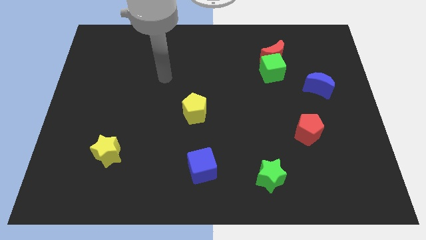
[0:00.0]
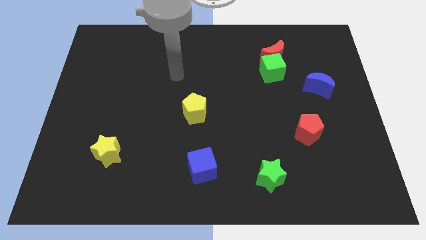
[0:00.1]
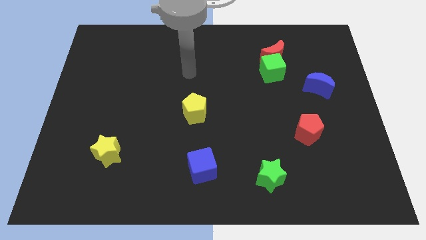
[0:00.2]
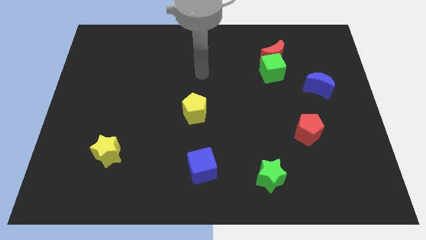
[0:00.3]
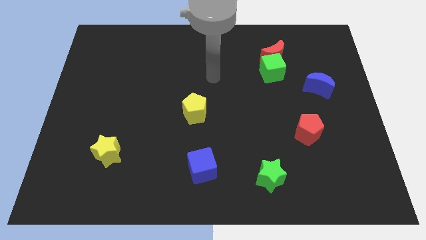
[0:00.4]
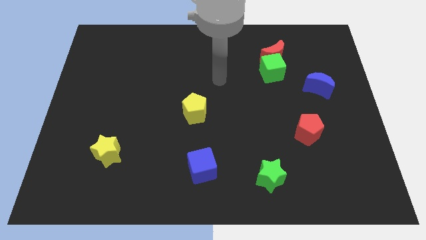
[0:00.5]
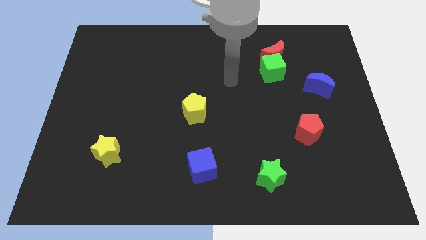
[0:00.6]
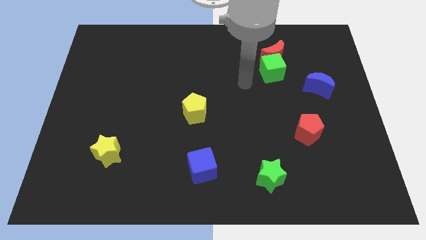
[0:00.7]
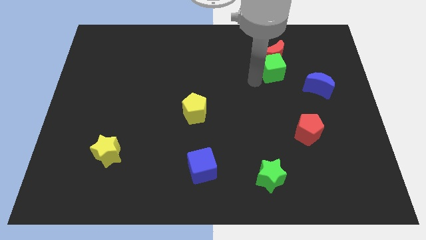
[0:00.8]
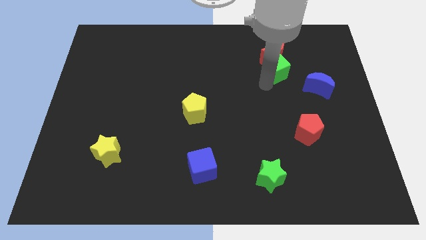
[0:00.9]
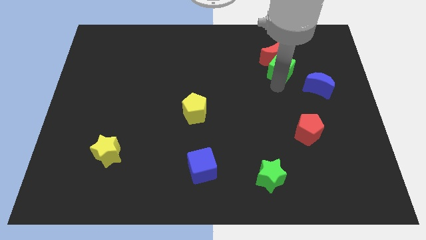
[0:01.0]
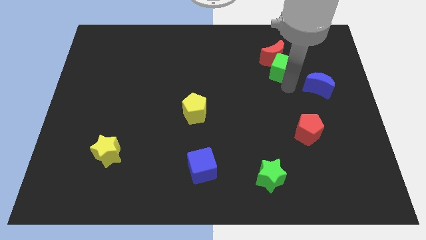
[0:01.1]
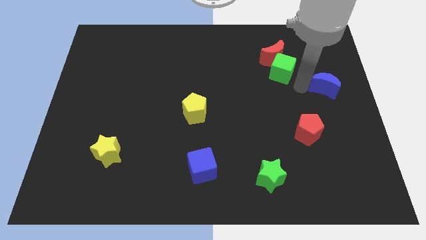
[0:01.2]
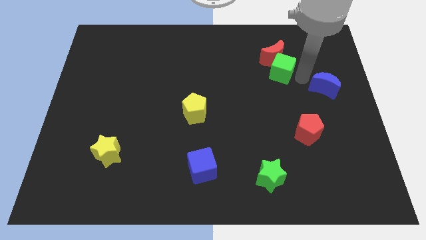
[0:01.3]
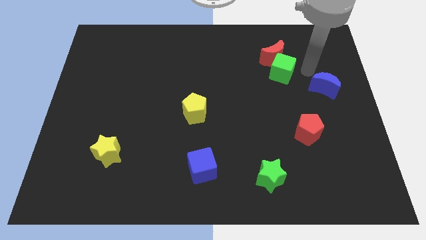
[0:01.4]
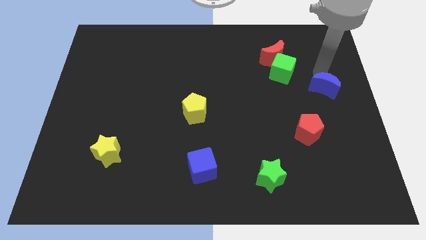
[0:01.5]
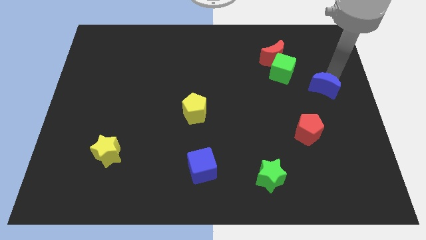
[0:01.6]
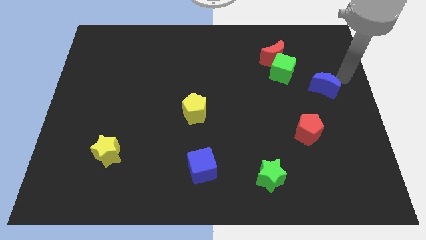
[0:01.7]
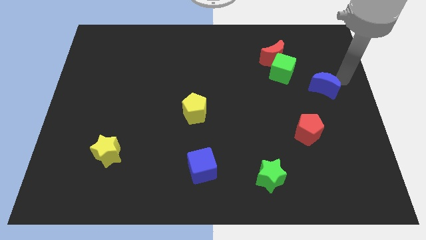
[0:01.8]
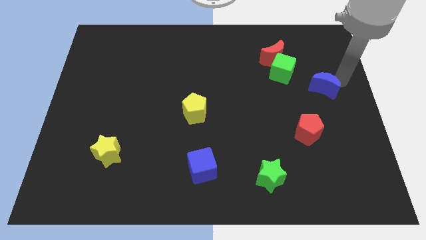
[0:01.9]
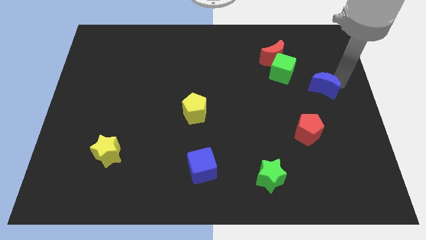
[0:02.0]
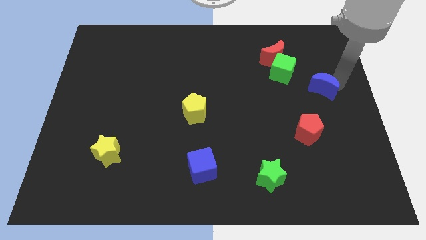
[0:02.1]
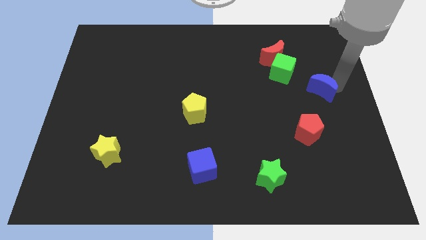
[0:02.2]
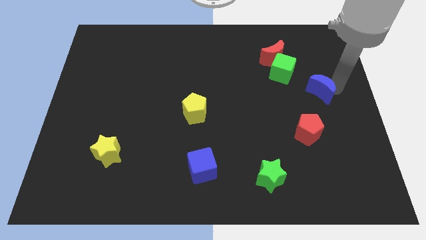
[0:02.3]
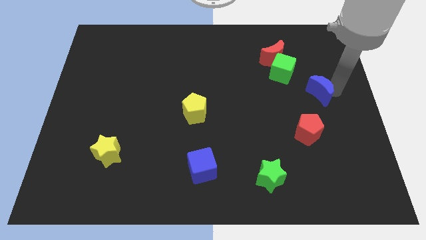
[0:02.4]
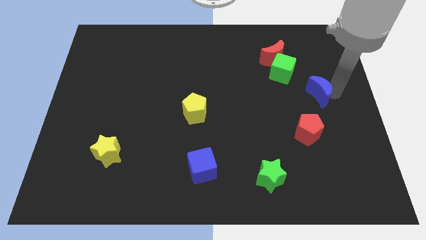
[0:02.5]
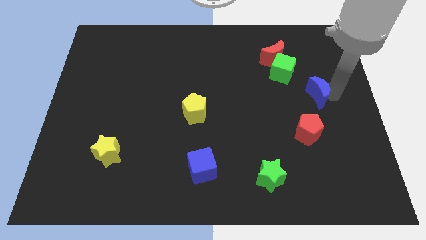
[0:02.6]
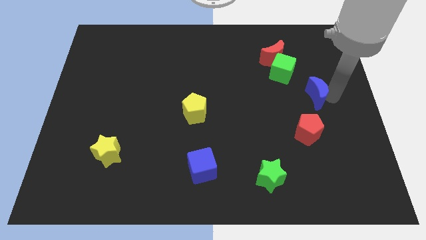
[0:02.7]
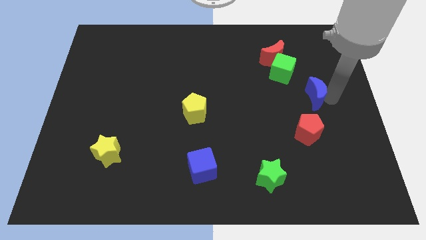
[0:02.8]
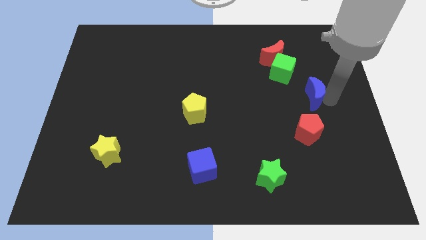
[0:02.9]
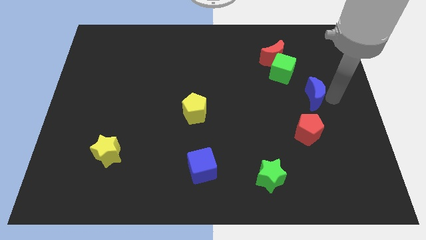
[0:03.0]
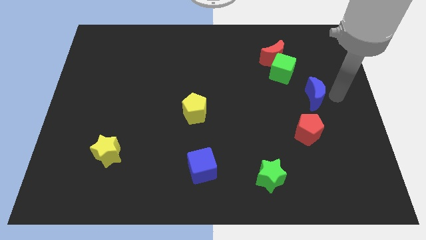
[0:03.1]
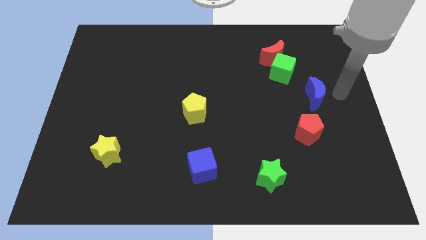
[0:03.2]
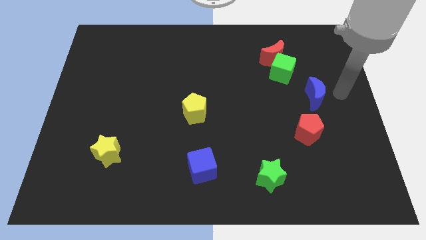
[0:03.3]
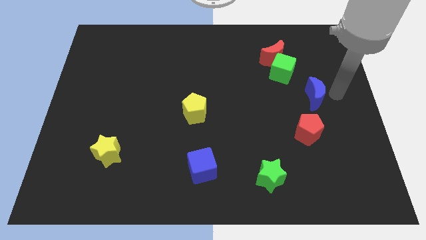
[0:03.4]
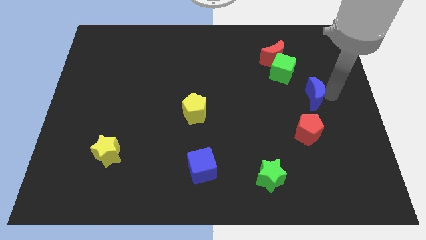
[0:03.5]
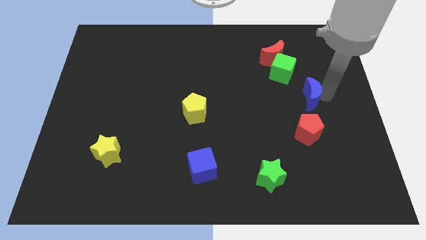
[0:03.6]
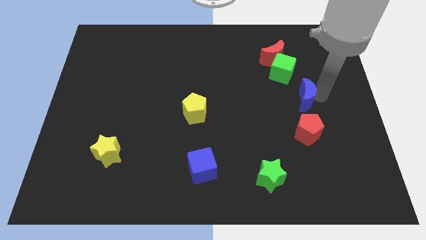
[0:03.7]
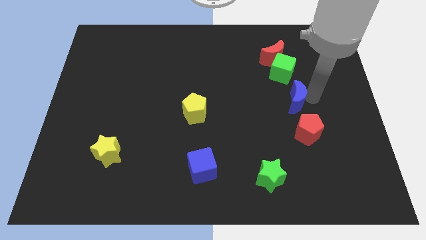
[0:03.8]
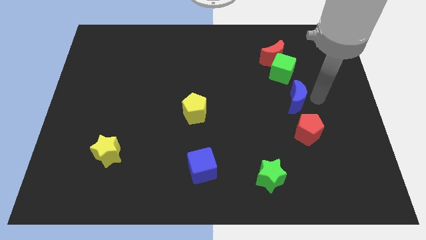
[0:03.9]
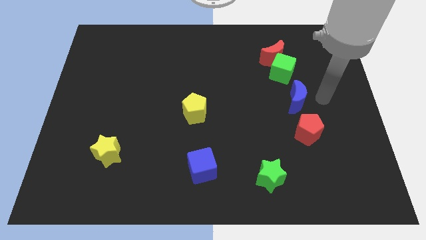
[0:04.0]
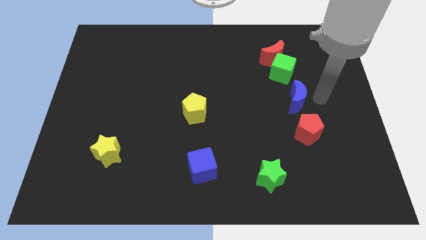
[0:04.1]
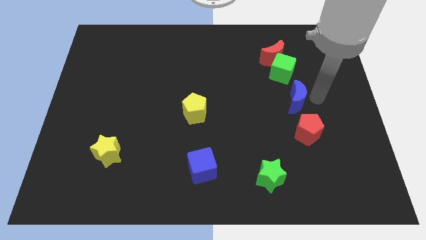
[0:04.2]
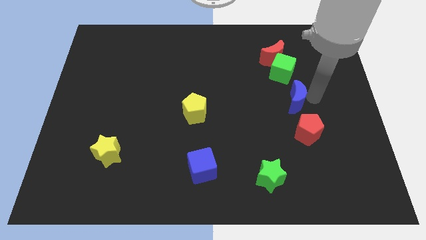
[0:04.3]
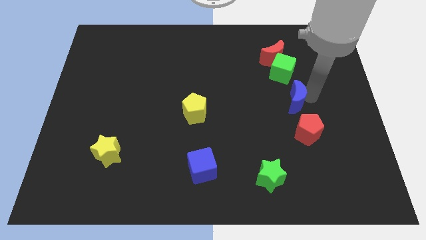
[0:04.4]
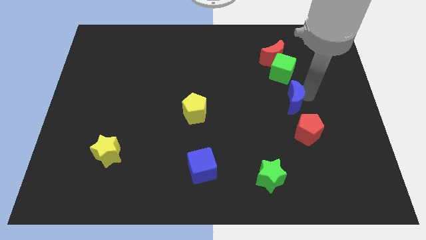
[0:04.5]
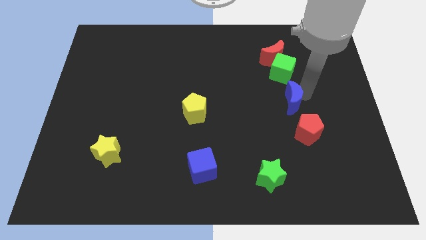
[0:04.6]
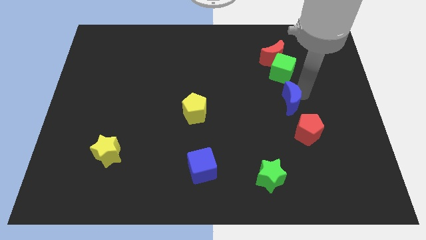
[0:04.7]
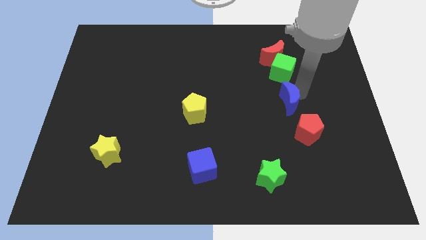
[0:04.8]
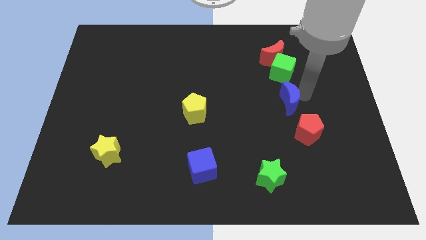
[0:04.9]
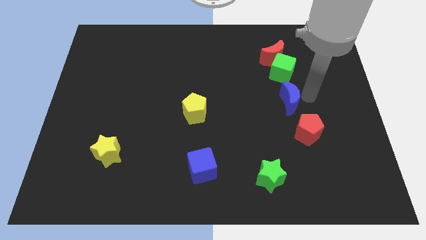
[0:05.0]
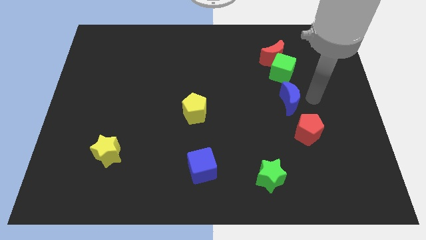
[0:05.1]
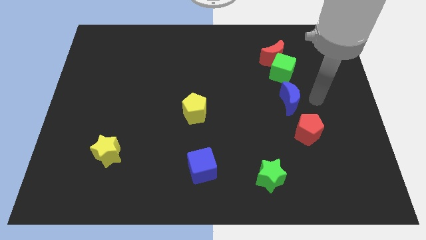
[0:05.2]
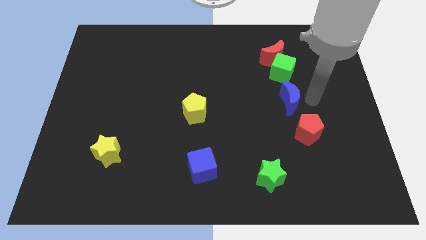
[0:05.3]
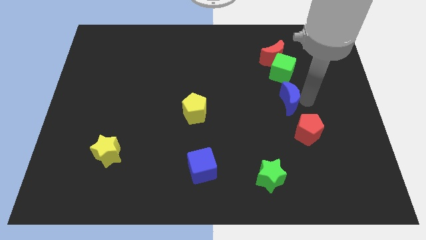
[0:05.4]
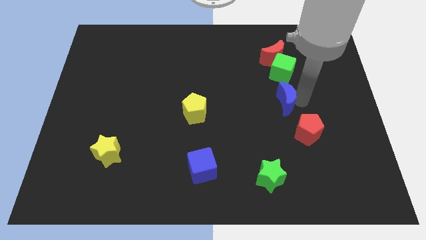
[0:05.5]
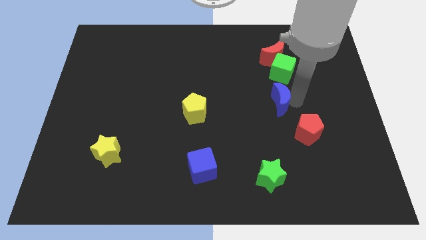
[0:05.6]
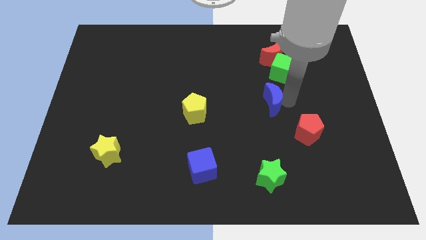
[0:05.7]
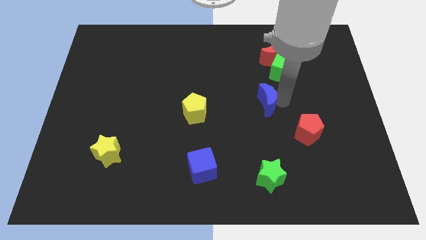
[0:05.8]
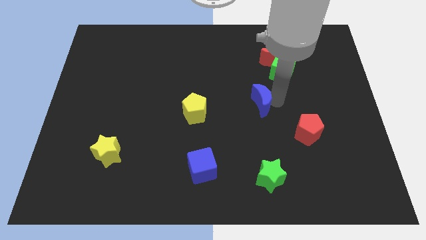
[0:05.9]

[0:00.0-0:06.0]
put the blue moon to the center

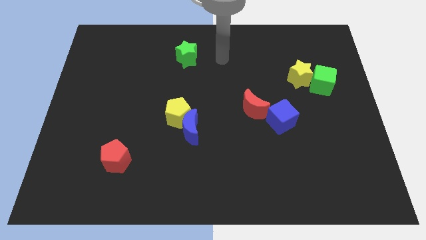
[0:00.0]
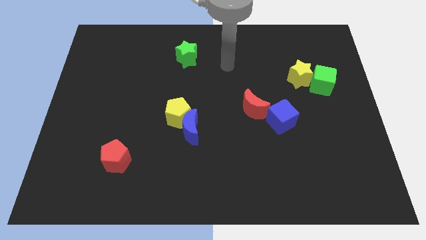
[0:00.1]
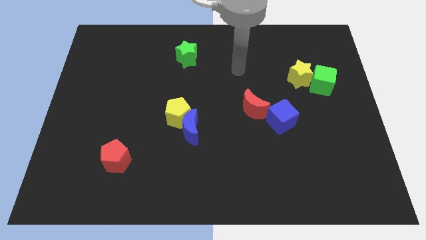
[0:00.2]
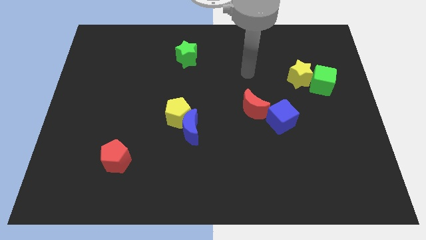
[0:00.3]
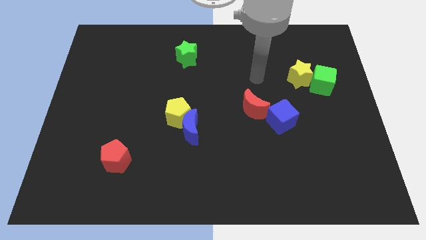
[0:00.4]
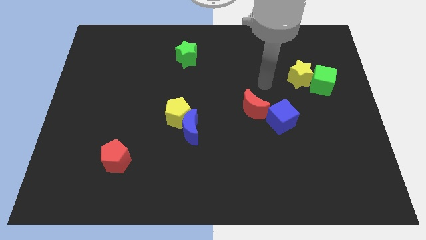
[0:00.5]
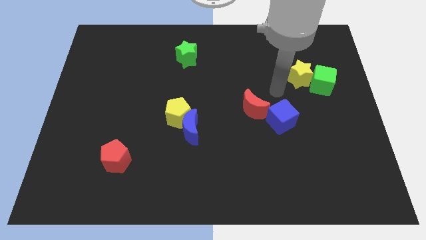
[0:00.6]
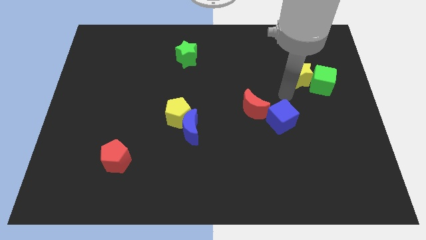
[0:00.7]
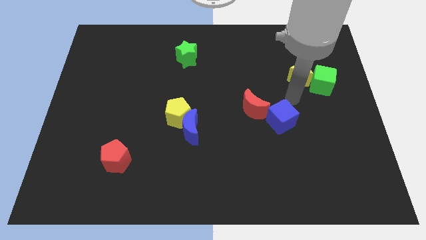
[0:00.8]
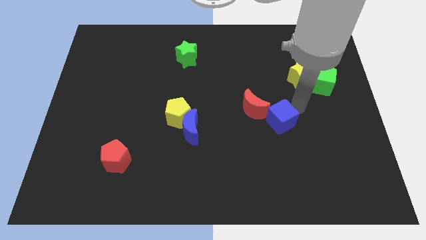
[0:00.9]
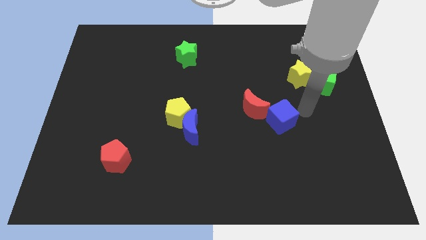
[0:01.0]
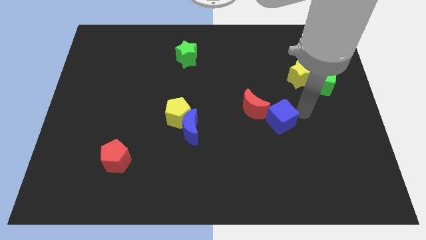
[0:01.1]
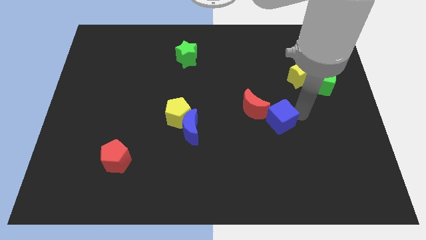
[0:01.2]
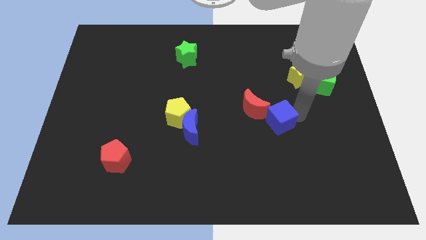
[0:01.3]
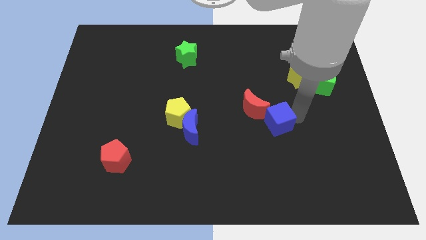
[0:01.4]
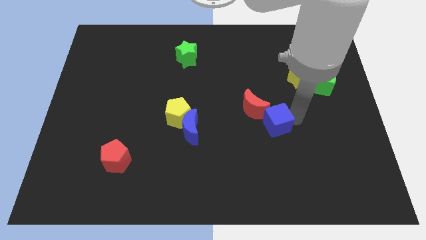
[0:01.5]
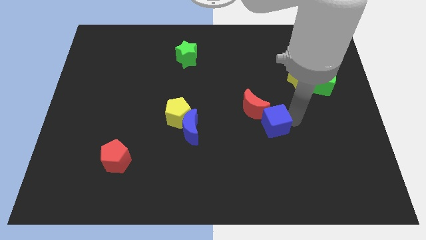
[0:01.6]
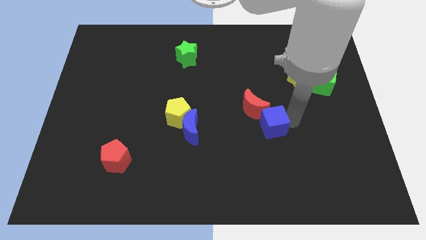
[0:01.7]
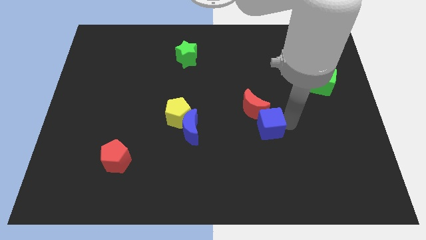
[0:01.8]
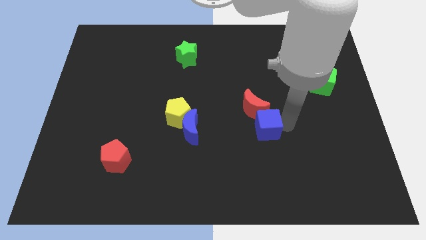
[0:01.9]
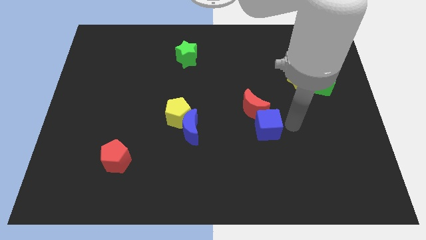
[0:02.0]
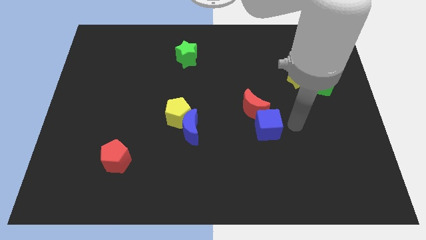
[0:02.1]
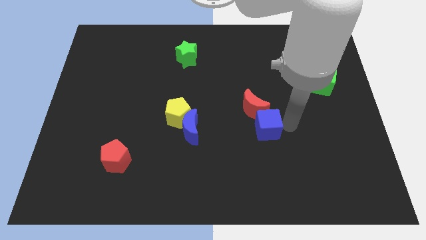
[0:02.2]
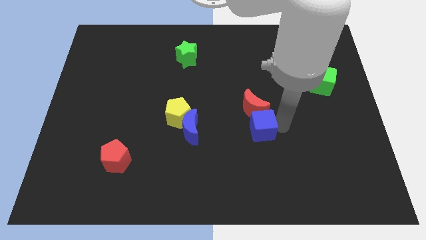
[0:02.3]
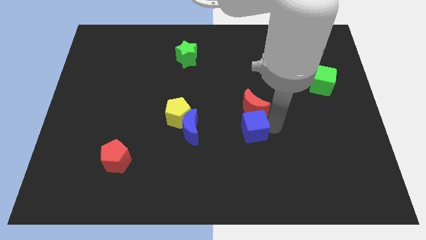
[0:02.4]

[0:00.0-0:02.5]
put the blue cube to the middle of the board
